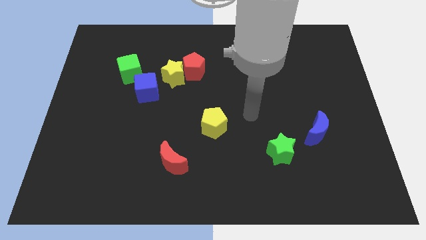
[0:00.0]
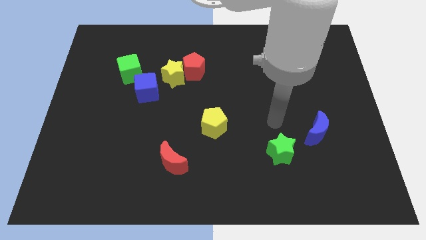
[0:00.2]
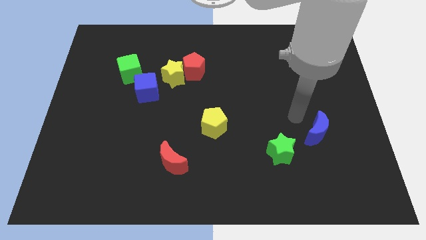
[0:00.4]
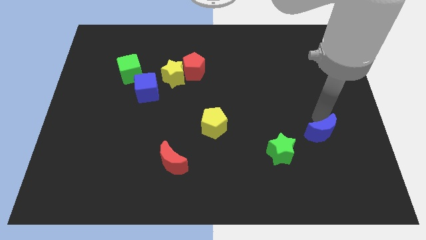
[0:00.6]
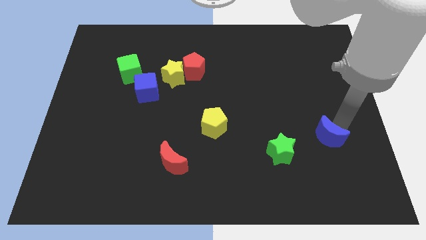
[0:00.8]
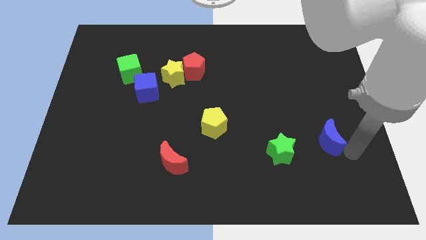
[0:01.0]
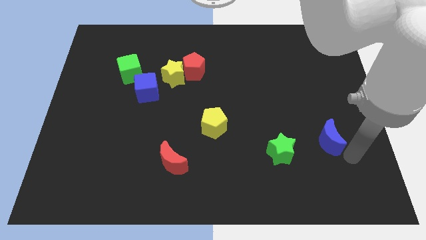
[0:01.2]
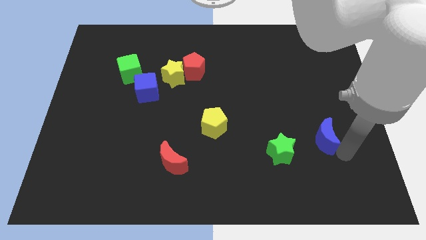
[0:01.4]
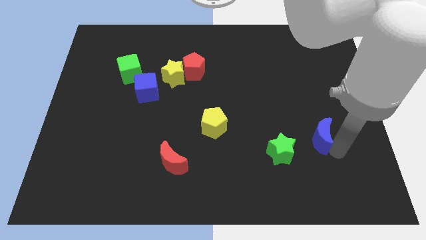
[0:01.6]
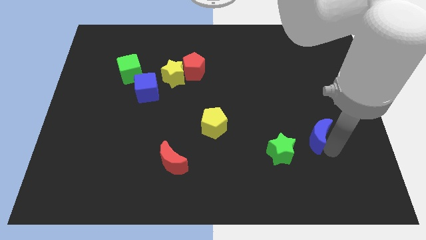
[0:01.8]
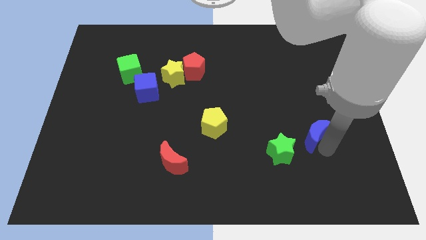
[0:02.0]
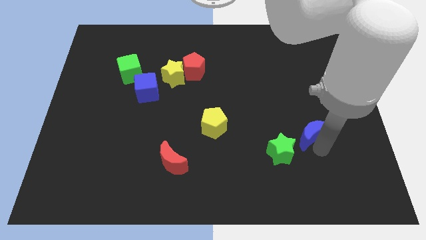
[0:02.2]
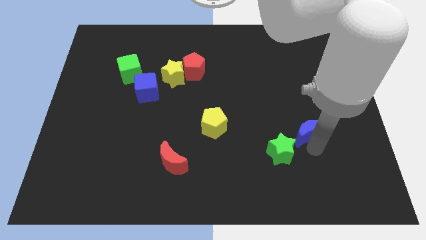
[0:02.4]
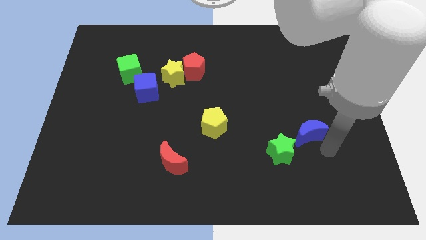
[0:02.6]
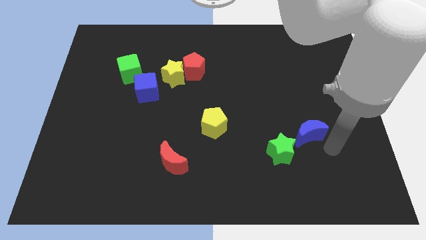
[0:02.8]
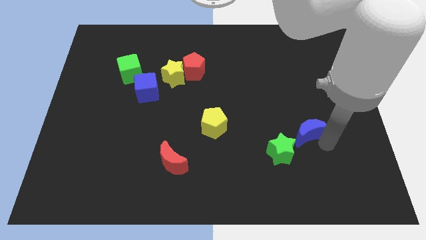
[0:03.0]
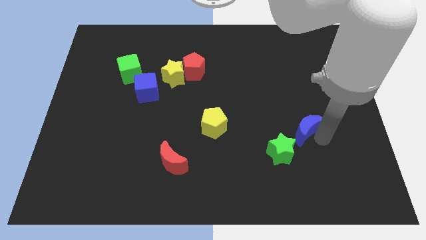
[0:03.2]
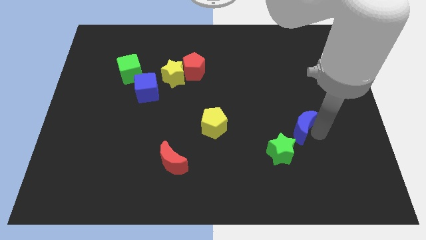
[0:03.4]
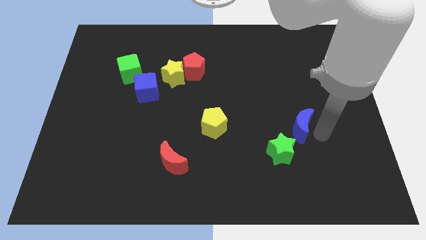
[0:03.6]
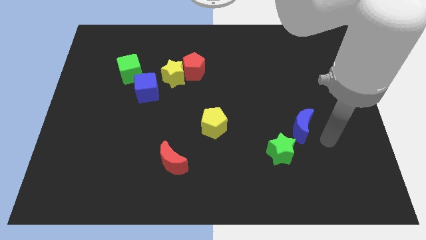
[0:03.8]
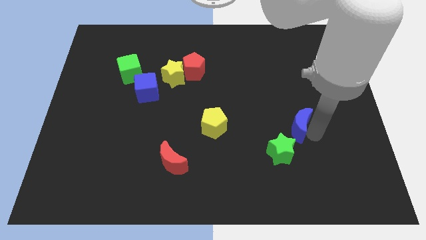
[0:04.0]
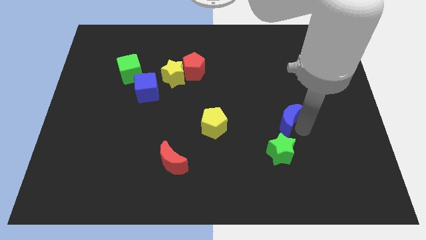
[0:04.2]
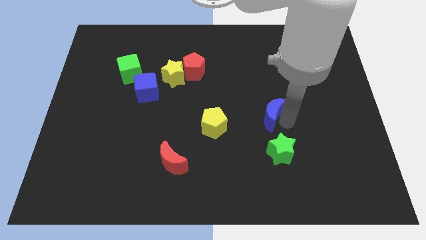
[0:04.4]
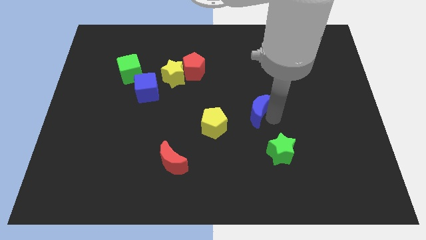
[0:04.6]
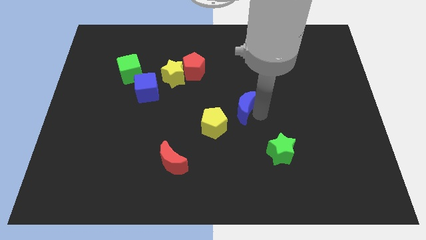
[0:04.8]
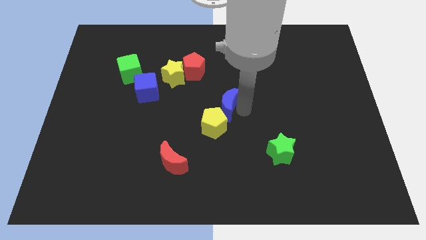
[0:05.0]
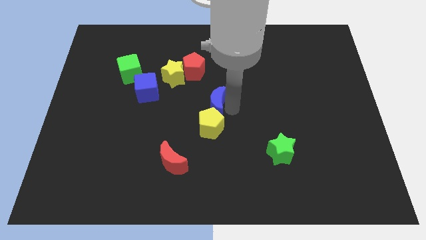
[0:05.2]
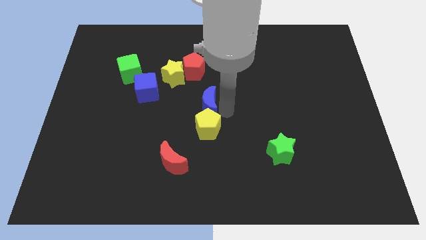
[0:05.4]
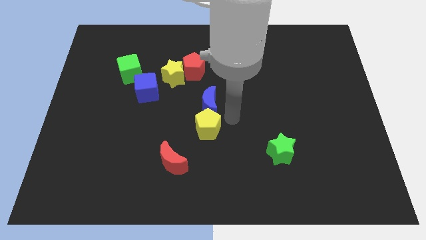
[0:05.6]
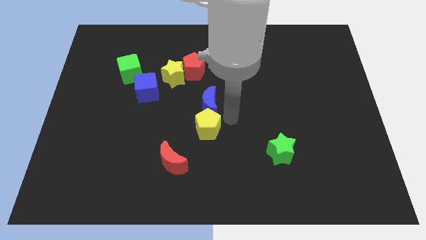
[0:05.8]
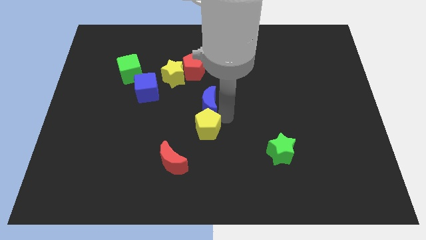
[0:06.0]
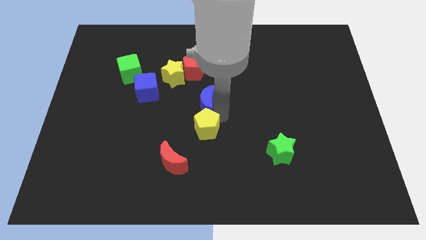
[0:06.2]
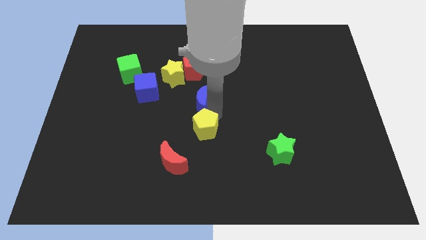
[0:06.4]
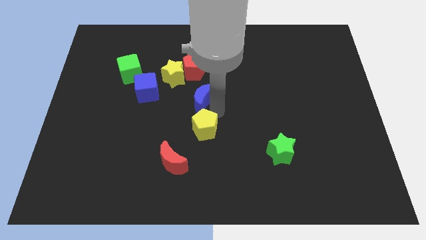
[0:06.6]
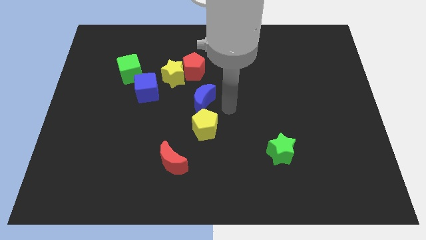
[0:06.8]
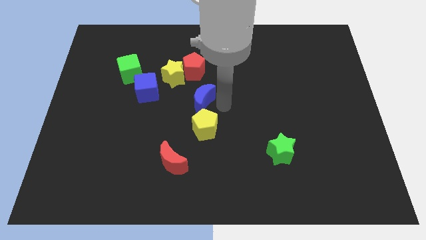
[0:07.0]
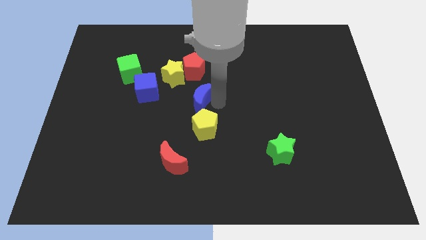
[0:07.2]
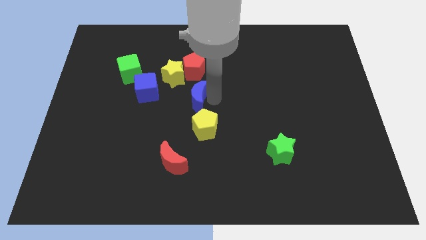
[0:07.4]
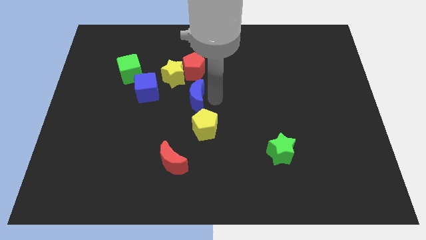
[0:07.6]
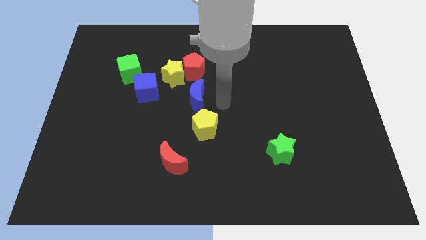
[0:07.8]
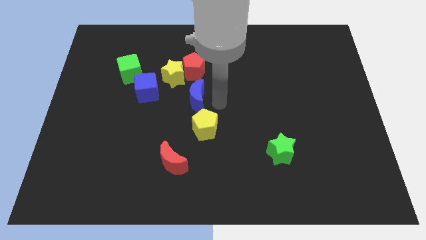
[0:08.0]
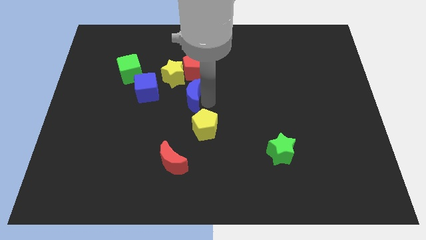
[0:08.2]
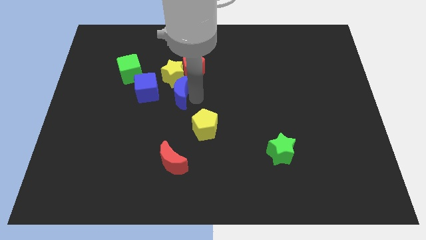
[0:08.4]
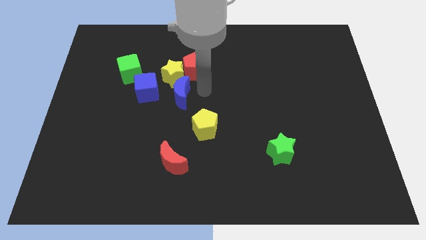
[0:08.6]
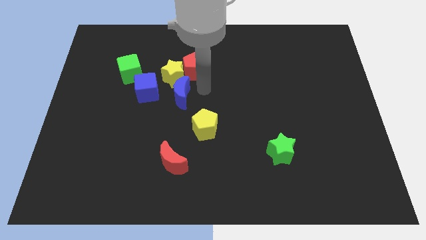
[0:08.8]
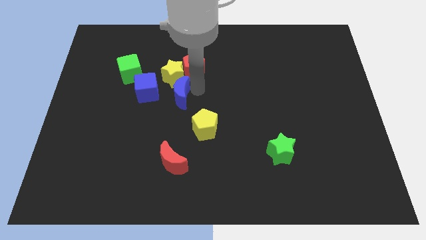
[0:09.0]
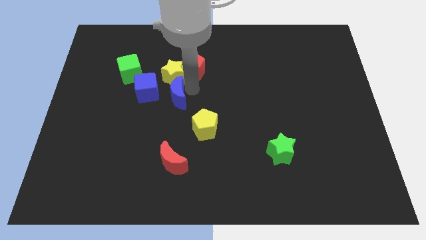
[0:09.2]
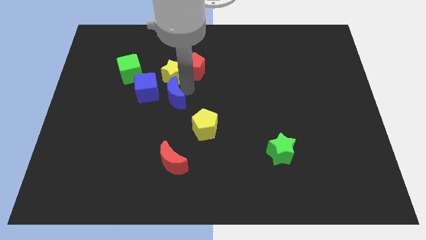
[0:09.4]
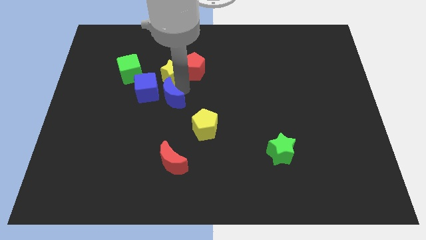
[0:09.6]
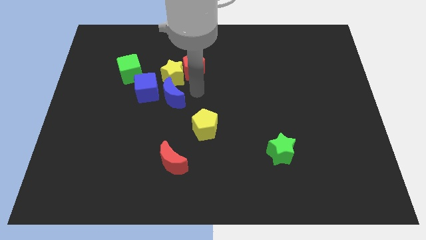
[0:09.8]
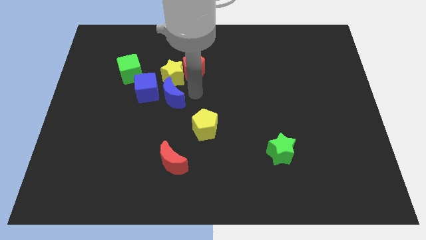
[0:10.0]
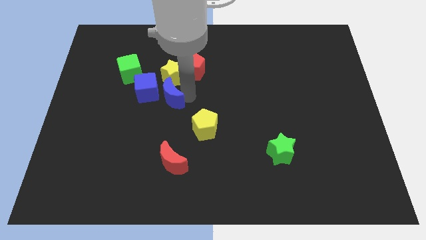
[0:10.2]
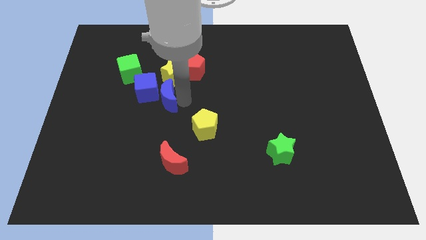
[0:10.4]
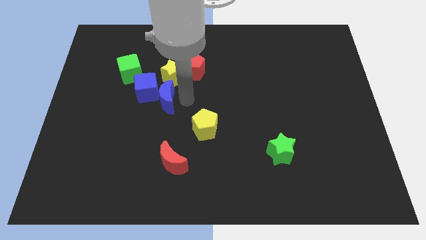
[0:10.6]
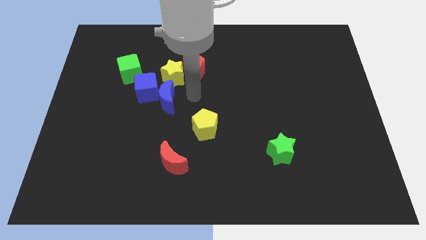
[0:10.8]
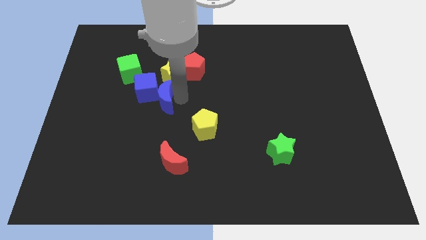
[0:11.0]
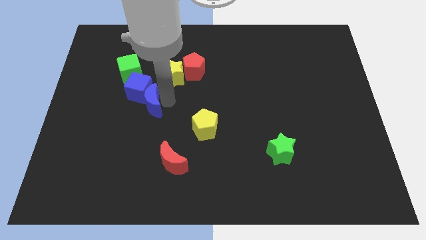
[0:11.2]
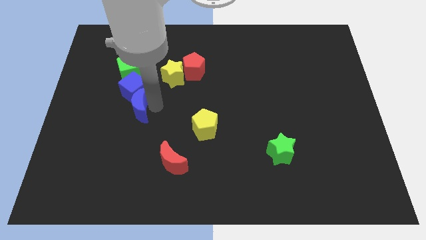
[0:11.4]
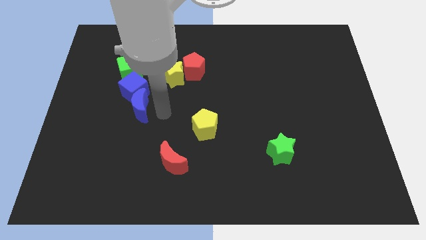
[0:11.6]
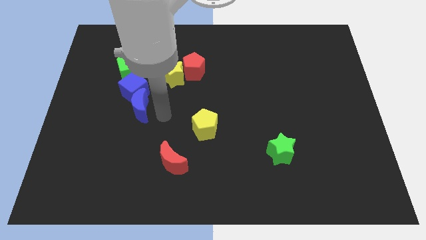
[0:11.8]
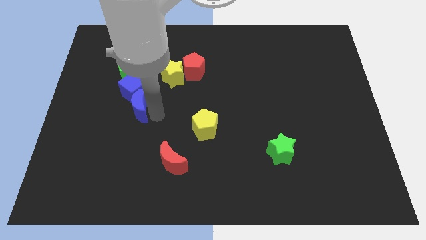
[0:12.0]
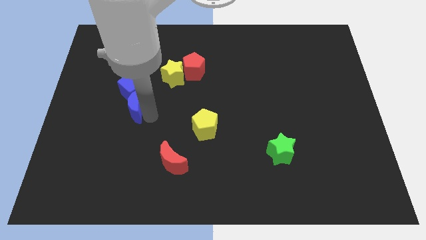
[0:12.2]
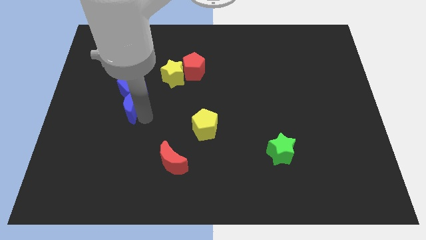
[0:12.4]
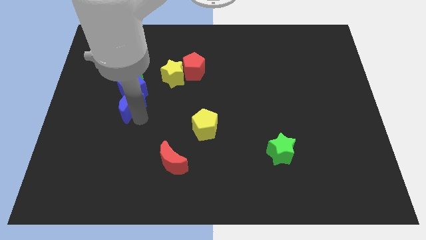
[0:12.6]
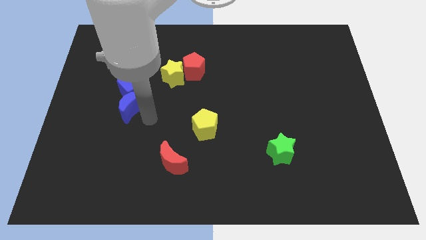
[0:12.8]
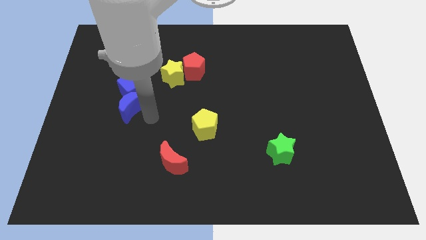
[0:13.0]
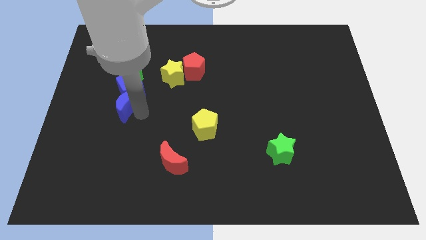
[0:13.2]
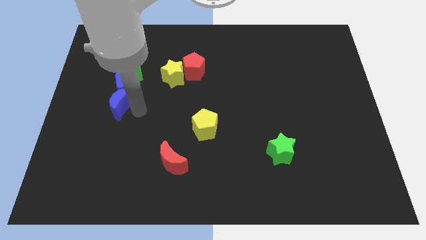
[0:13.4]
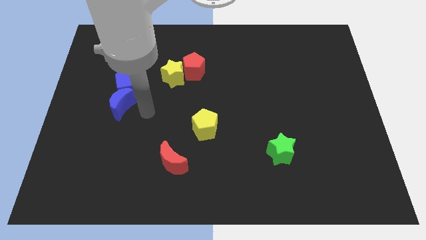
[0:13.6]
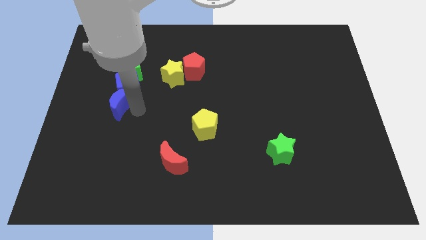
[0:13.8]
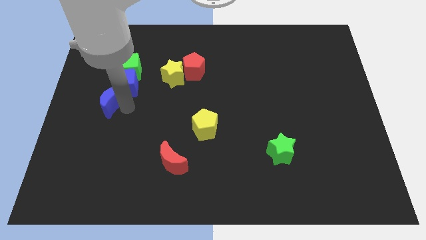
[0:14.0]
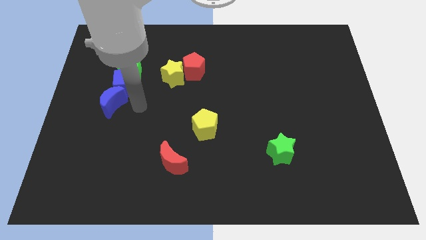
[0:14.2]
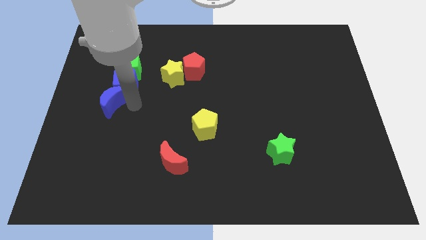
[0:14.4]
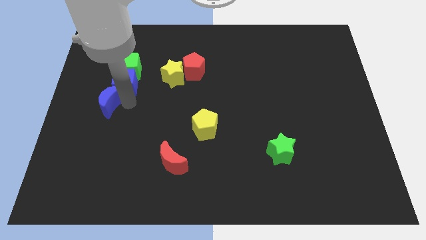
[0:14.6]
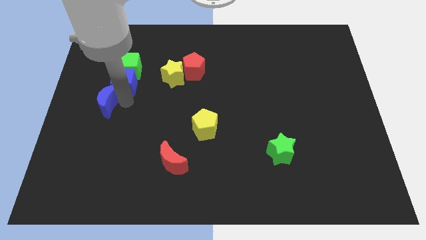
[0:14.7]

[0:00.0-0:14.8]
push the blue moon to the left side of the board

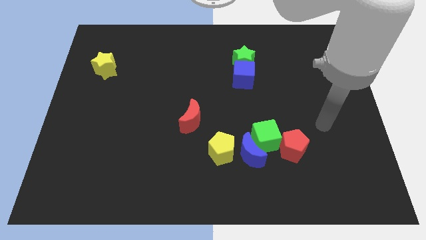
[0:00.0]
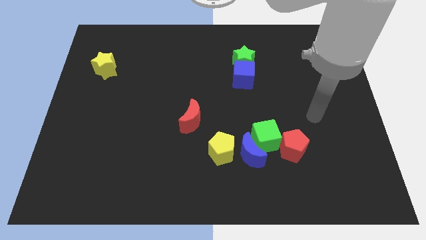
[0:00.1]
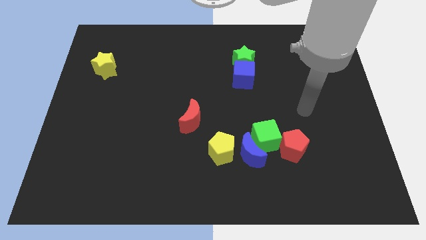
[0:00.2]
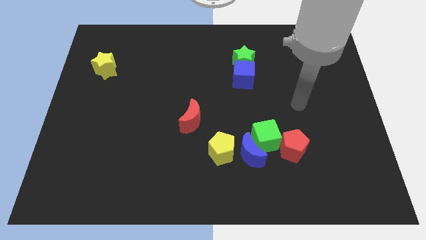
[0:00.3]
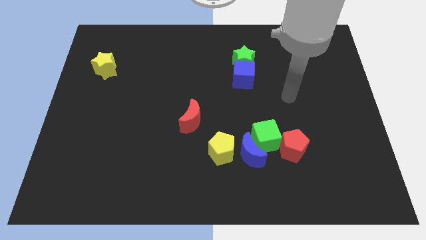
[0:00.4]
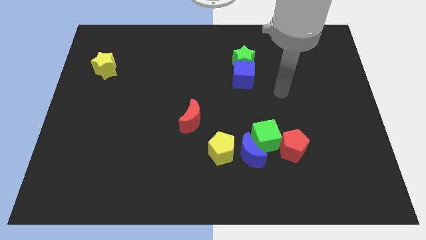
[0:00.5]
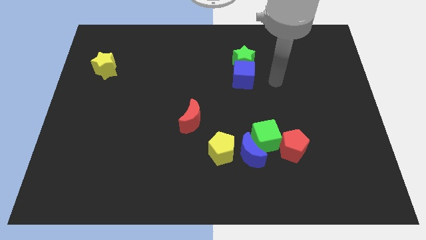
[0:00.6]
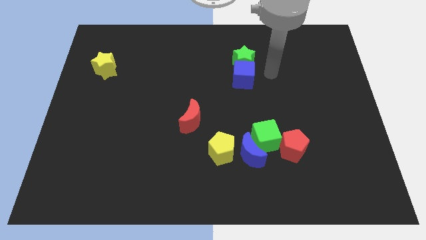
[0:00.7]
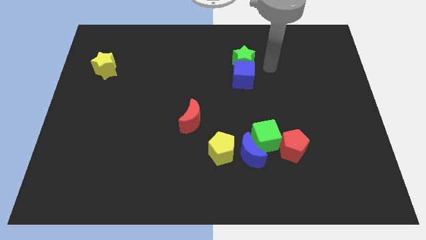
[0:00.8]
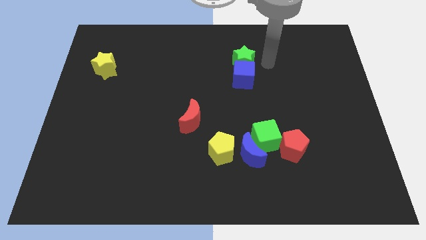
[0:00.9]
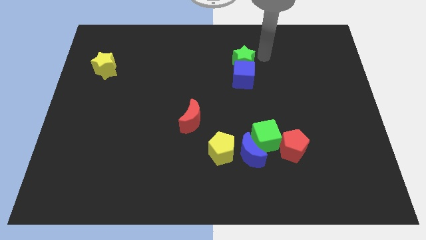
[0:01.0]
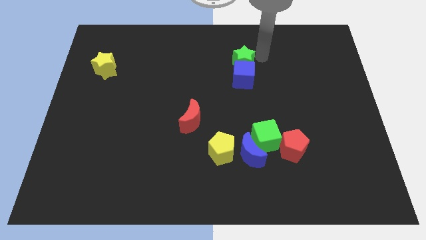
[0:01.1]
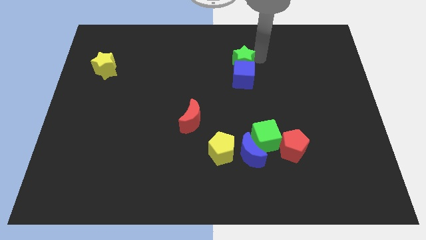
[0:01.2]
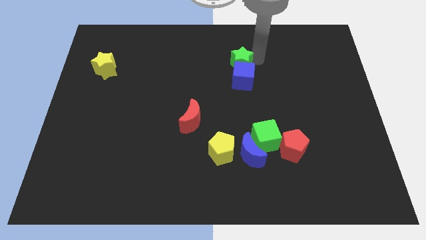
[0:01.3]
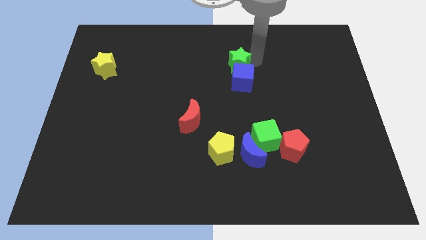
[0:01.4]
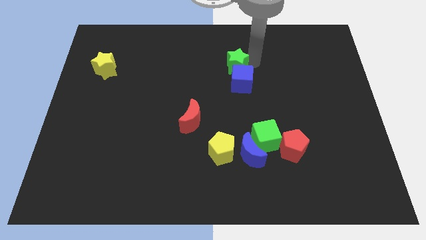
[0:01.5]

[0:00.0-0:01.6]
put the green star to the middle of the board
